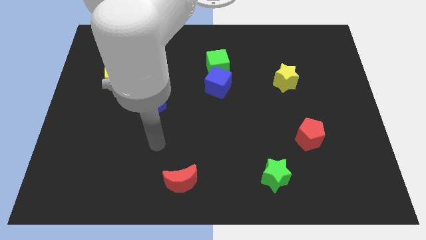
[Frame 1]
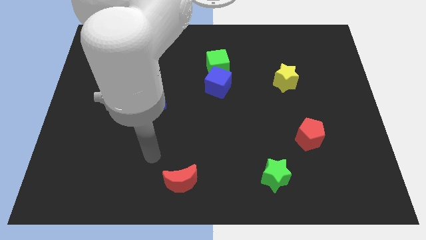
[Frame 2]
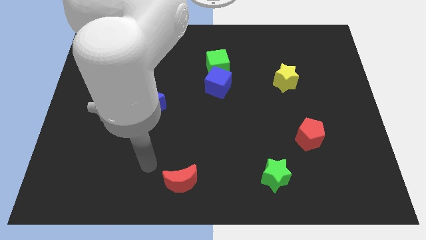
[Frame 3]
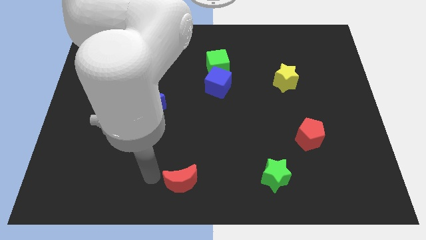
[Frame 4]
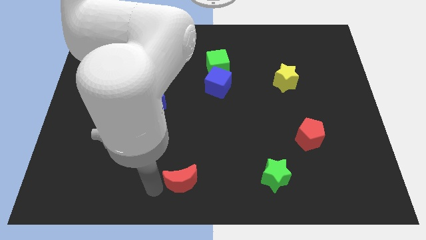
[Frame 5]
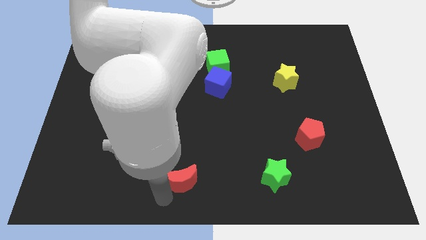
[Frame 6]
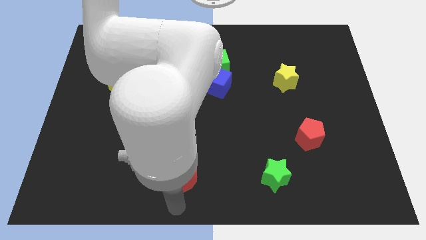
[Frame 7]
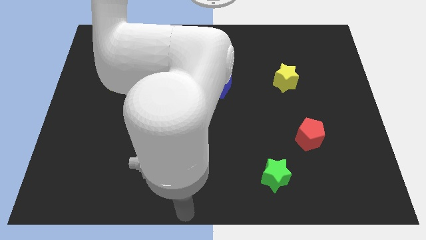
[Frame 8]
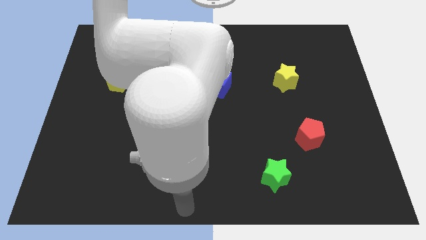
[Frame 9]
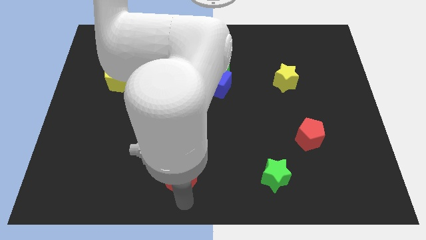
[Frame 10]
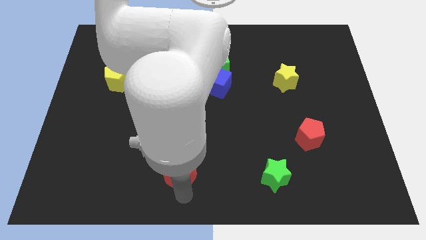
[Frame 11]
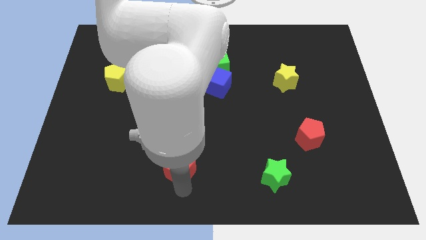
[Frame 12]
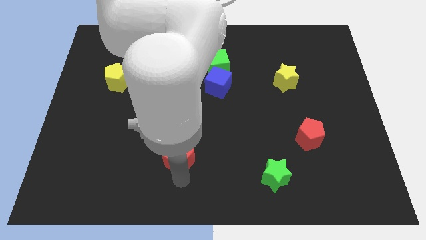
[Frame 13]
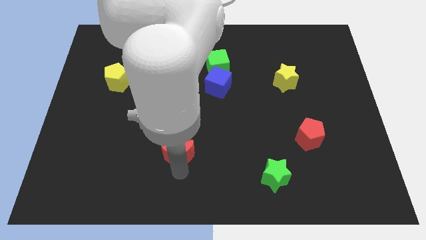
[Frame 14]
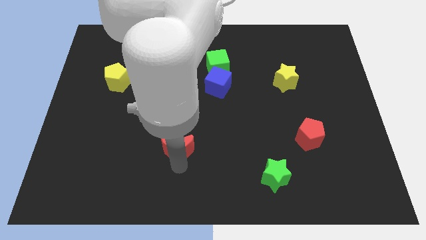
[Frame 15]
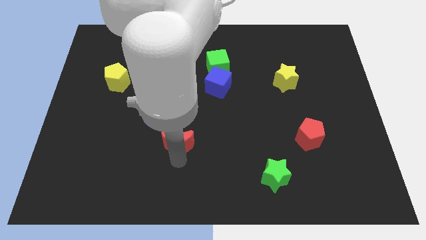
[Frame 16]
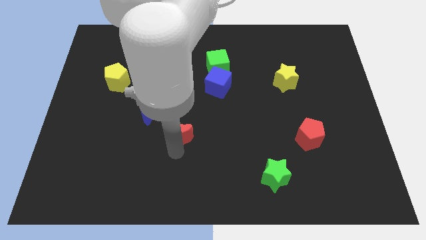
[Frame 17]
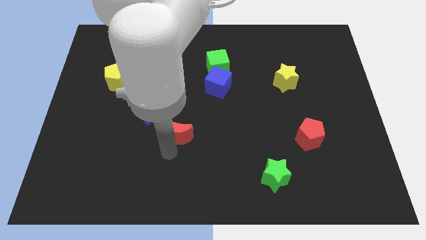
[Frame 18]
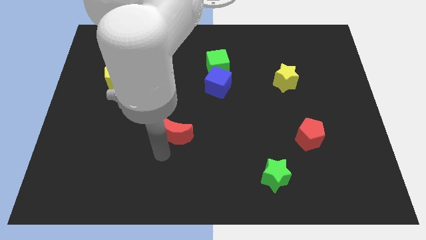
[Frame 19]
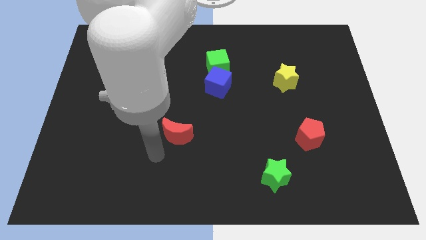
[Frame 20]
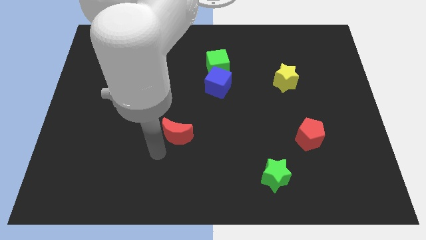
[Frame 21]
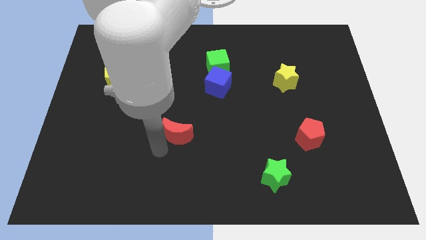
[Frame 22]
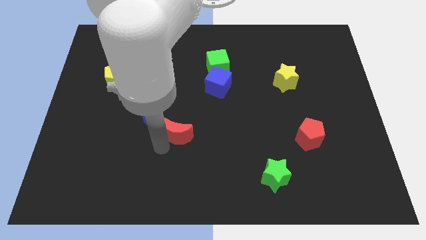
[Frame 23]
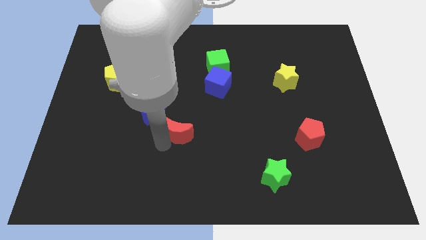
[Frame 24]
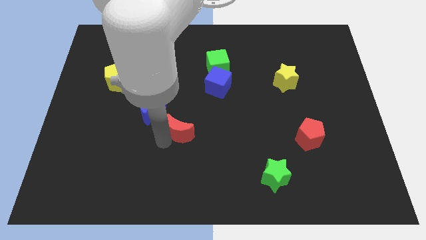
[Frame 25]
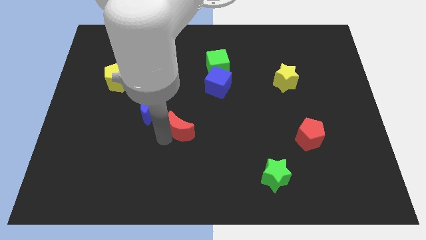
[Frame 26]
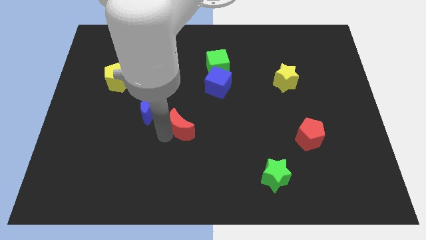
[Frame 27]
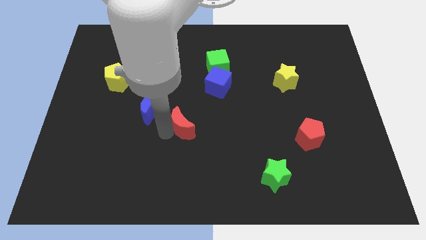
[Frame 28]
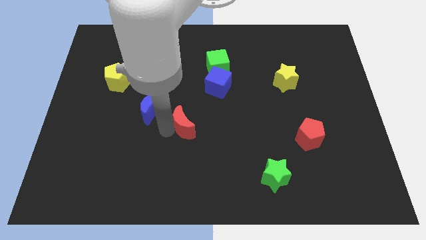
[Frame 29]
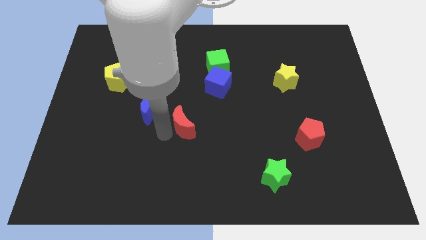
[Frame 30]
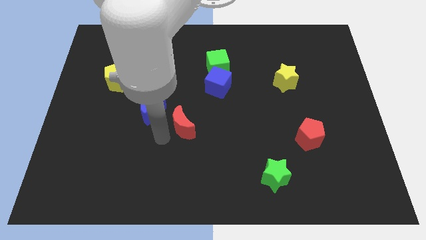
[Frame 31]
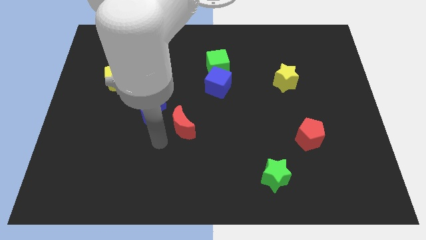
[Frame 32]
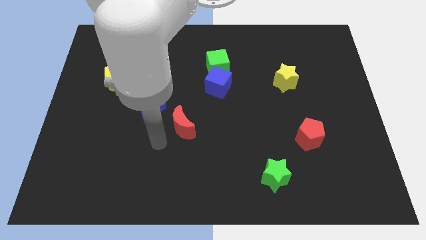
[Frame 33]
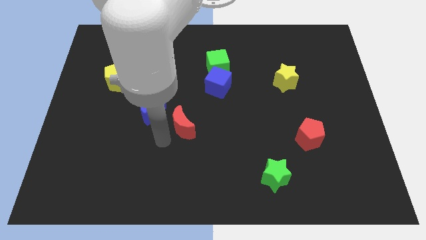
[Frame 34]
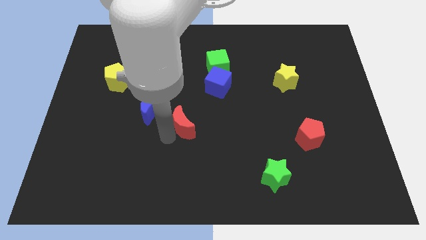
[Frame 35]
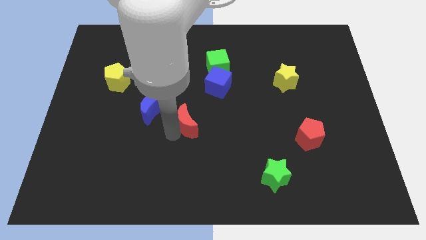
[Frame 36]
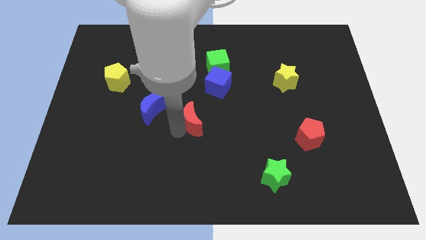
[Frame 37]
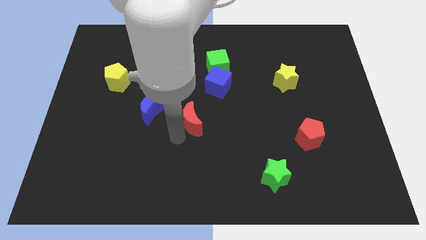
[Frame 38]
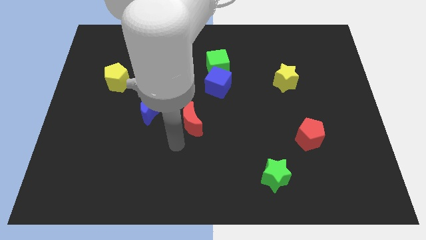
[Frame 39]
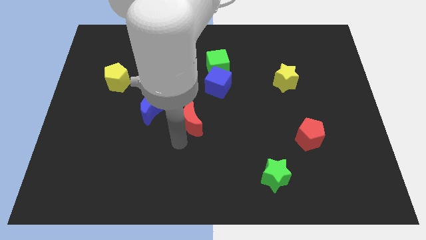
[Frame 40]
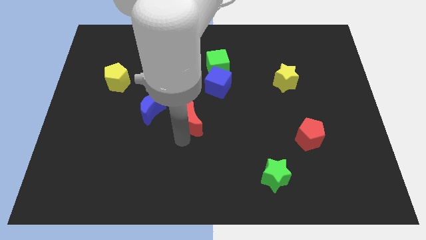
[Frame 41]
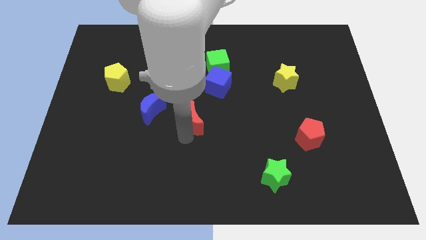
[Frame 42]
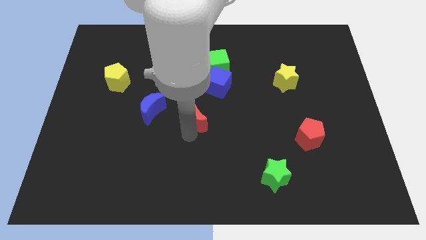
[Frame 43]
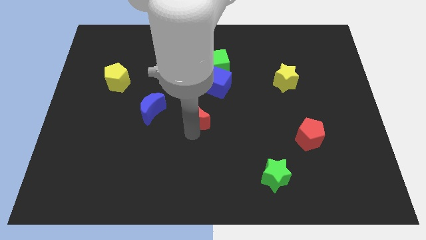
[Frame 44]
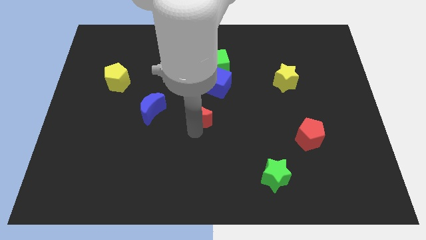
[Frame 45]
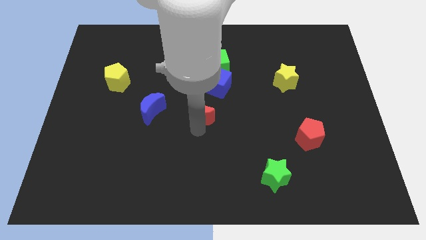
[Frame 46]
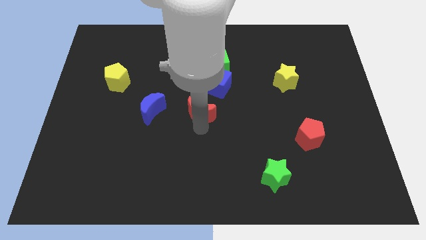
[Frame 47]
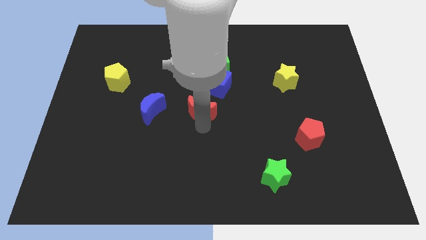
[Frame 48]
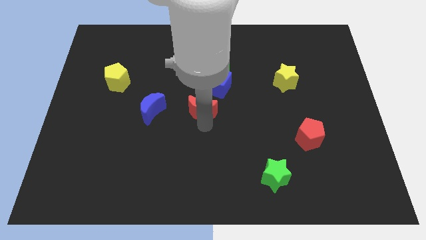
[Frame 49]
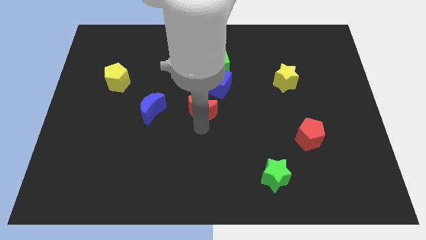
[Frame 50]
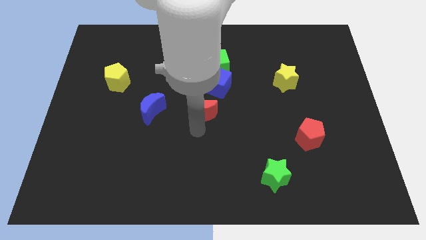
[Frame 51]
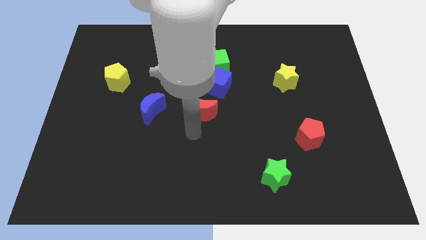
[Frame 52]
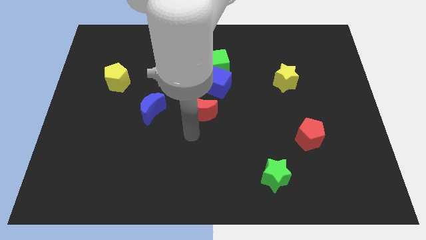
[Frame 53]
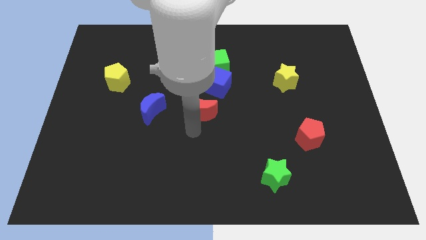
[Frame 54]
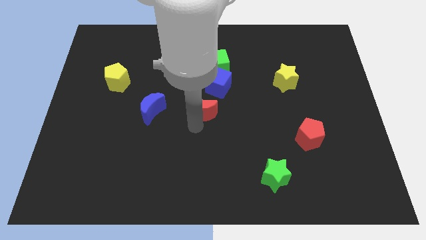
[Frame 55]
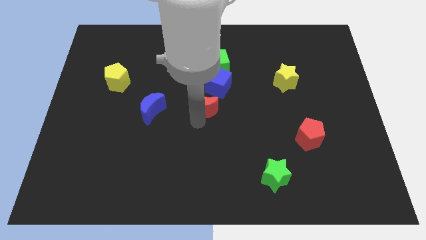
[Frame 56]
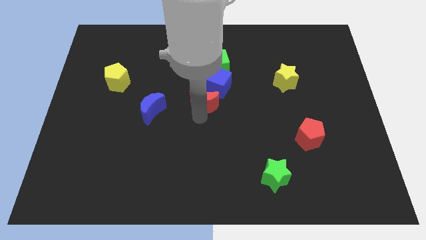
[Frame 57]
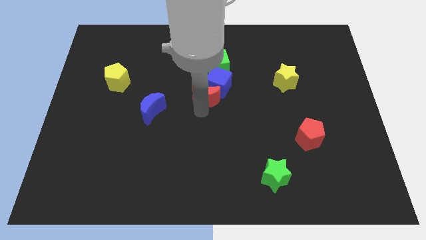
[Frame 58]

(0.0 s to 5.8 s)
move the red moon to the blue cube

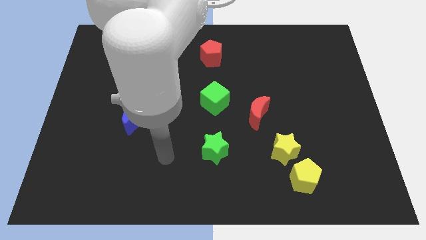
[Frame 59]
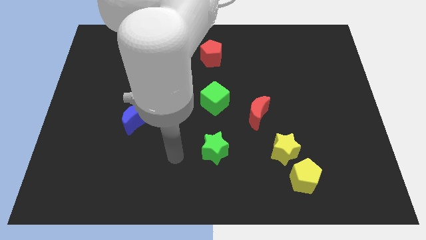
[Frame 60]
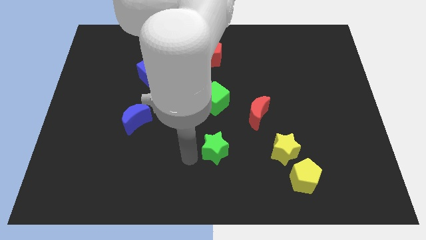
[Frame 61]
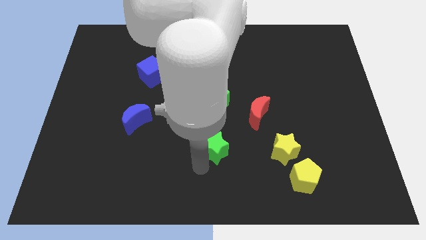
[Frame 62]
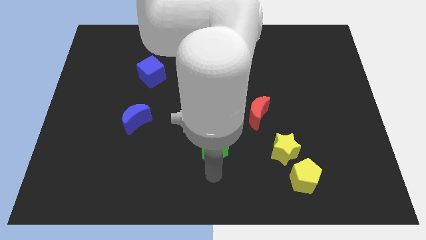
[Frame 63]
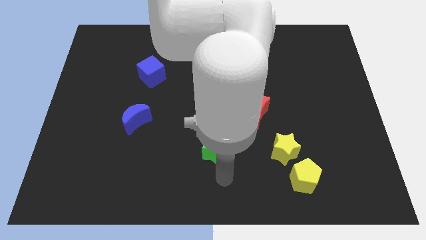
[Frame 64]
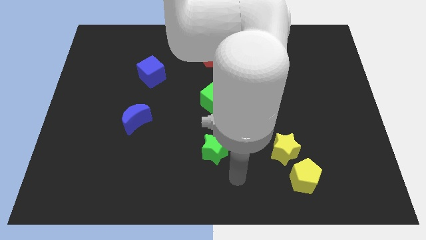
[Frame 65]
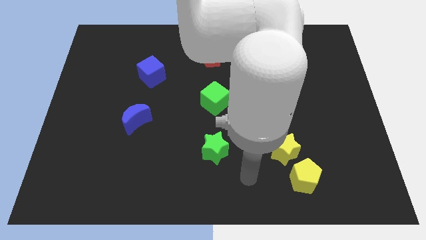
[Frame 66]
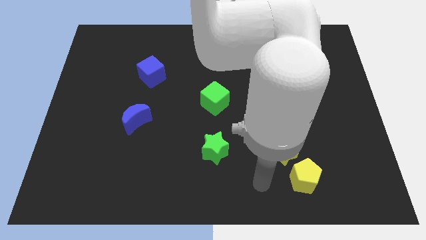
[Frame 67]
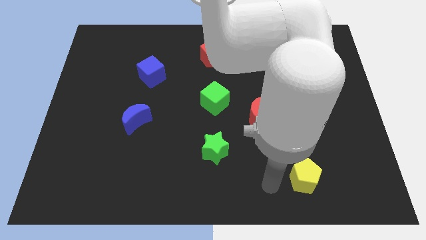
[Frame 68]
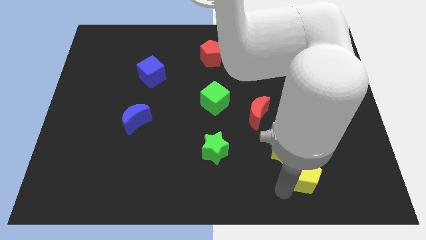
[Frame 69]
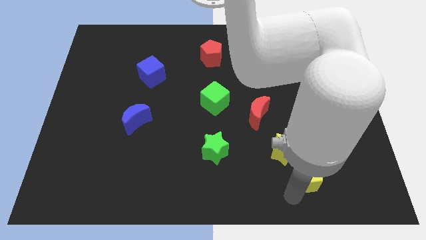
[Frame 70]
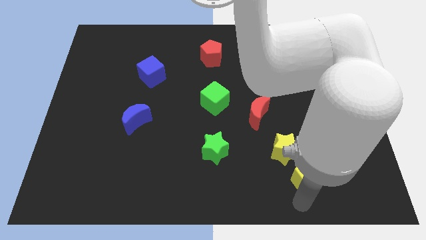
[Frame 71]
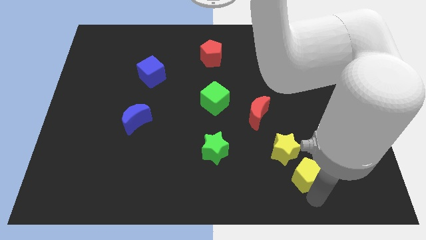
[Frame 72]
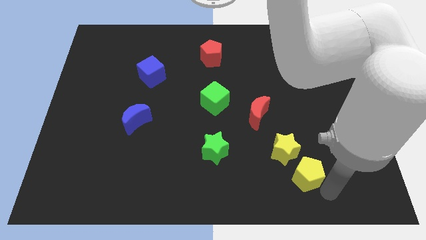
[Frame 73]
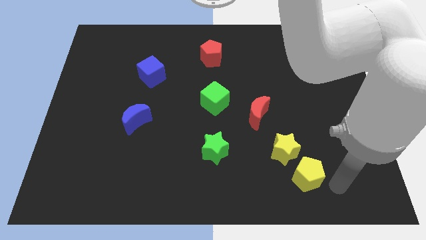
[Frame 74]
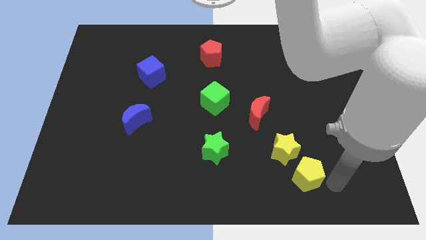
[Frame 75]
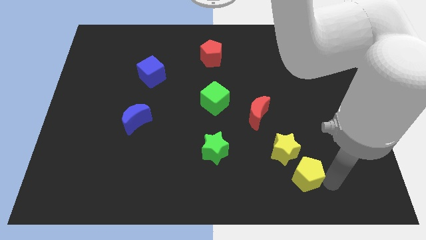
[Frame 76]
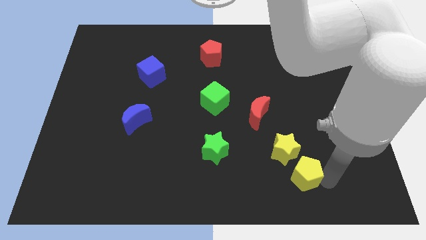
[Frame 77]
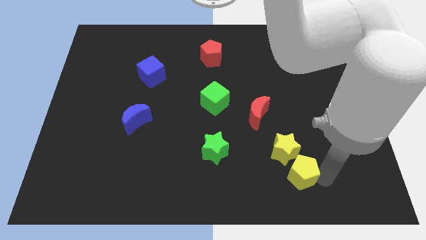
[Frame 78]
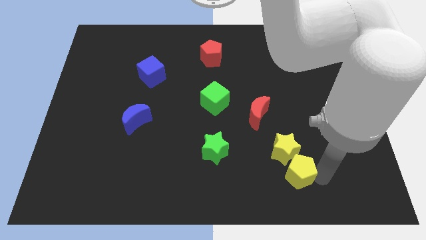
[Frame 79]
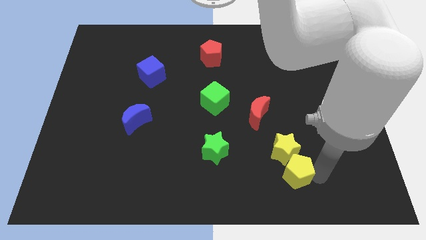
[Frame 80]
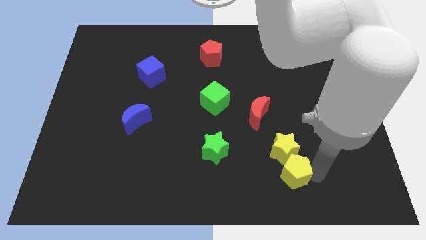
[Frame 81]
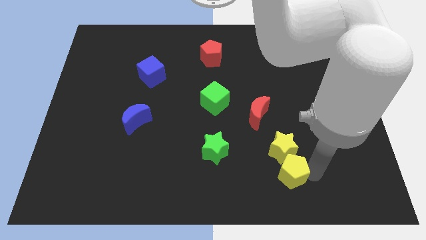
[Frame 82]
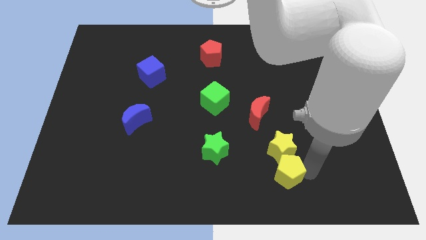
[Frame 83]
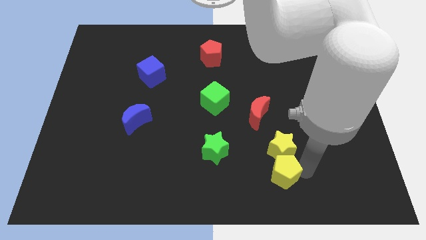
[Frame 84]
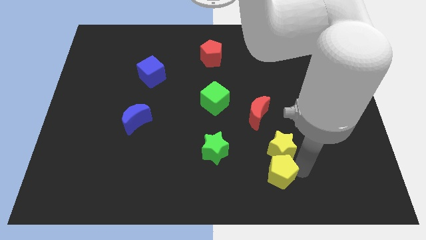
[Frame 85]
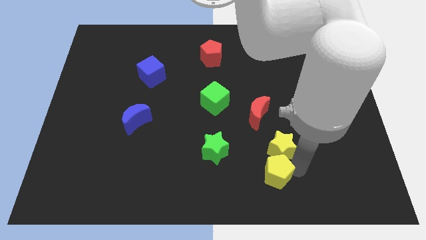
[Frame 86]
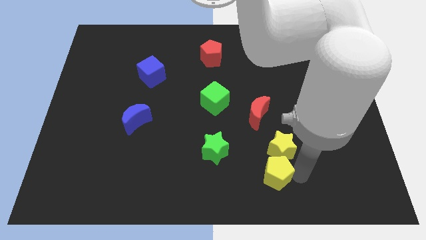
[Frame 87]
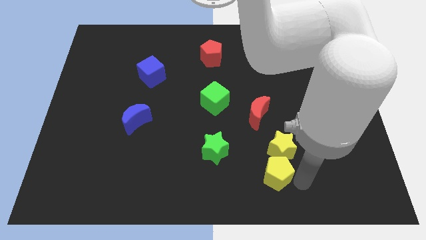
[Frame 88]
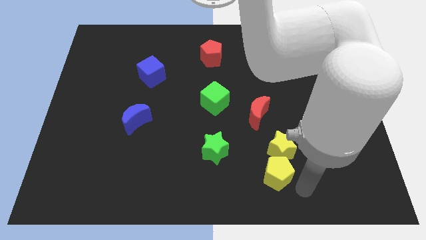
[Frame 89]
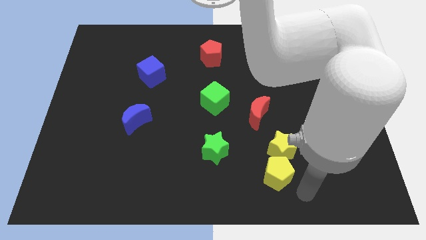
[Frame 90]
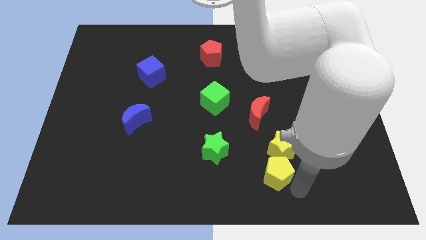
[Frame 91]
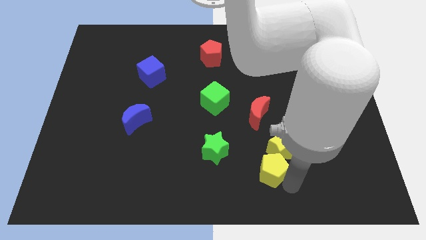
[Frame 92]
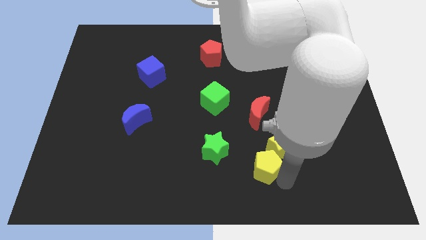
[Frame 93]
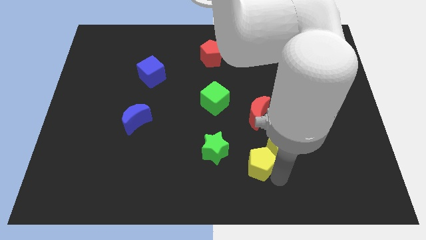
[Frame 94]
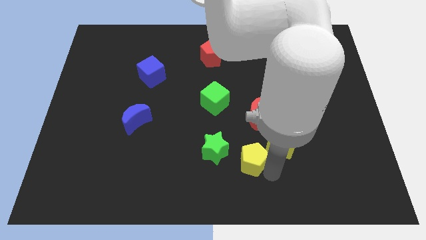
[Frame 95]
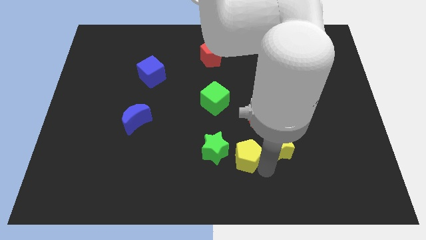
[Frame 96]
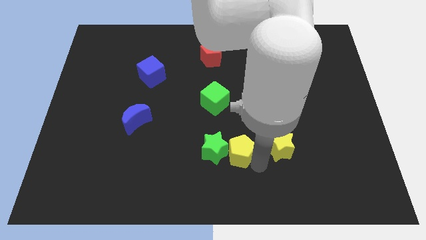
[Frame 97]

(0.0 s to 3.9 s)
put the yellow pentagon to the green star
